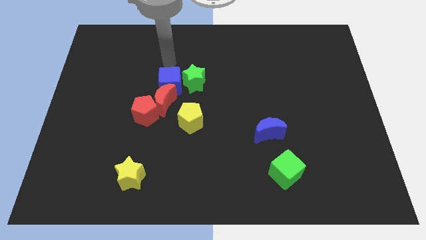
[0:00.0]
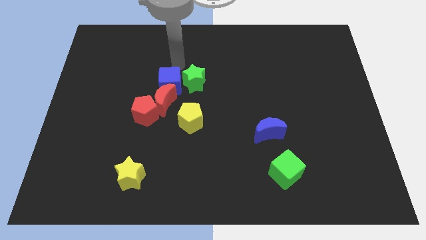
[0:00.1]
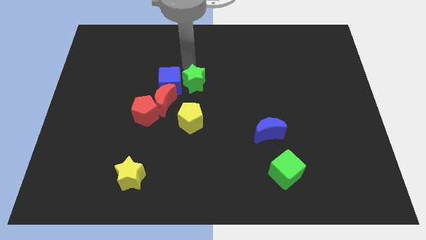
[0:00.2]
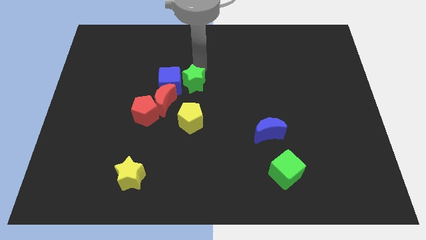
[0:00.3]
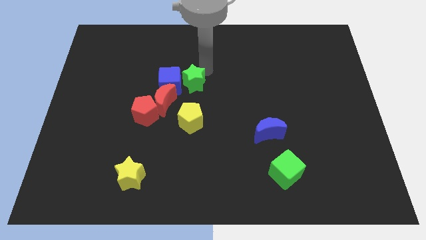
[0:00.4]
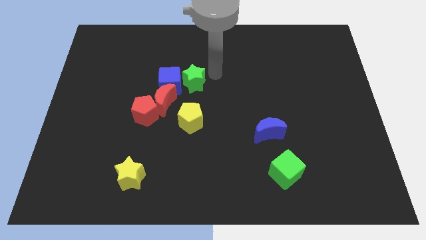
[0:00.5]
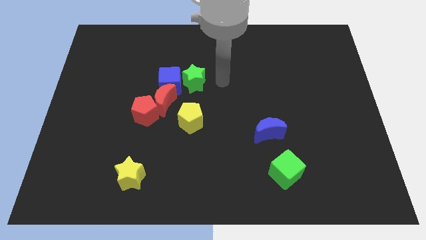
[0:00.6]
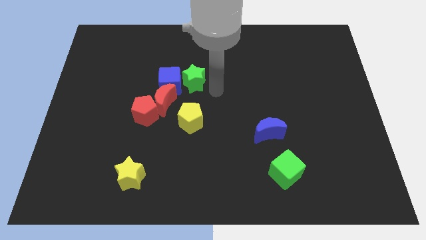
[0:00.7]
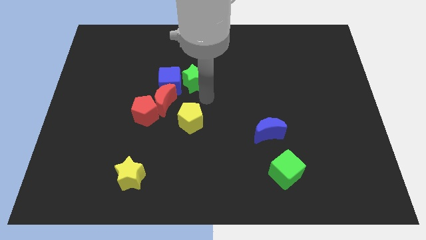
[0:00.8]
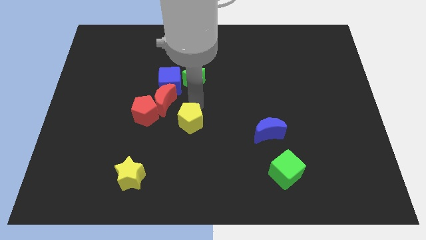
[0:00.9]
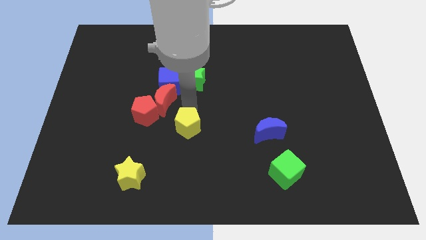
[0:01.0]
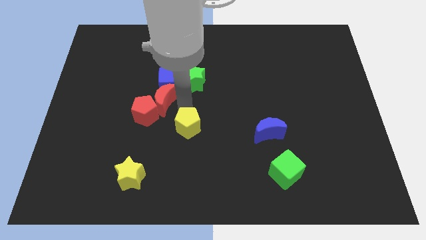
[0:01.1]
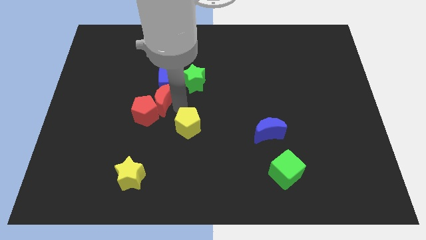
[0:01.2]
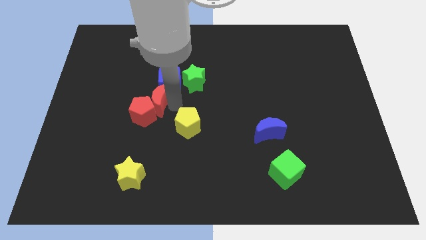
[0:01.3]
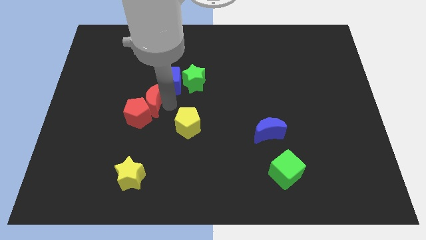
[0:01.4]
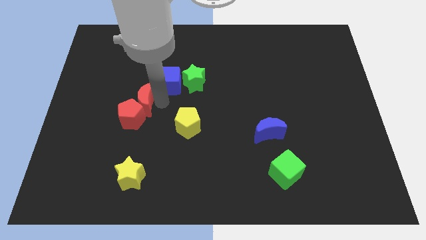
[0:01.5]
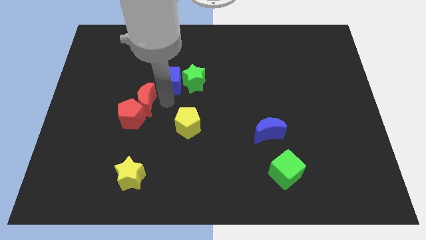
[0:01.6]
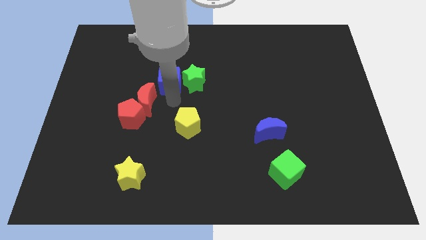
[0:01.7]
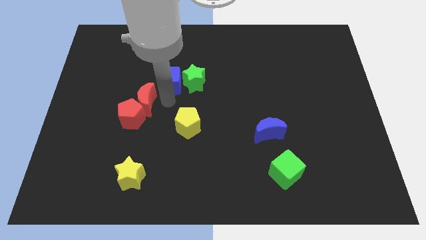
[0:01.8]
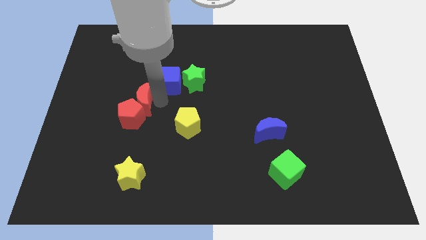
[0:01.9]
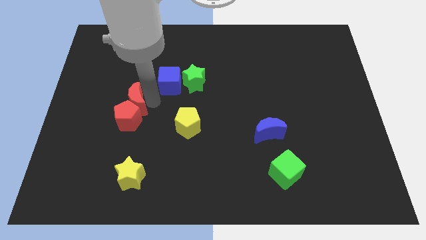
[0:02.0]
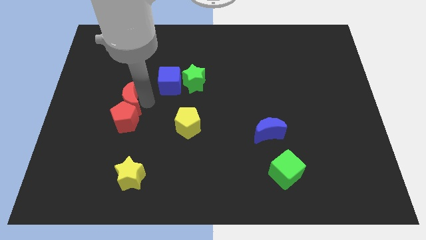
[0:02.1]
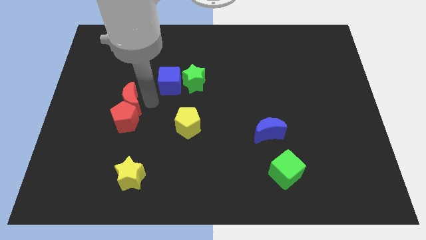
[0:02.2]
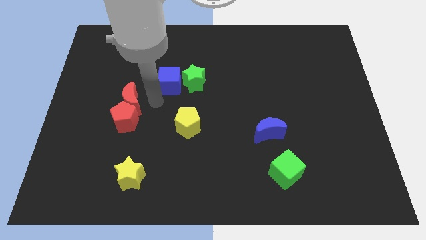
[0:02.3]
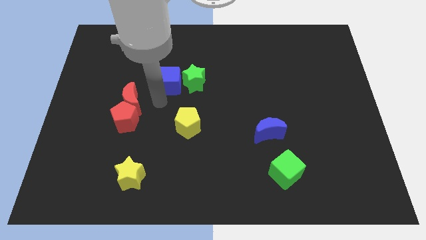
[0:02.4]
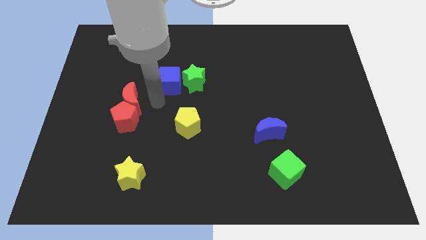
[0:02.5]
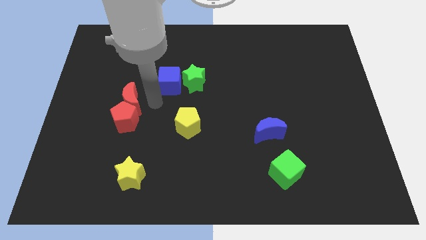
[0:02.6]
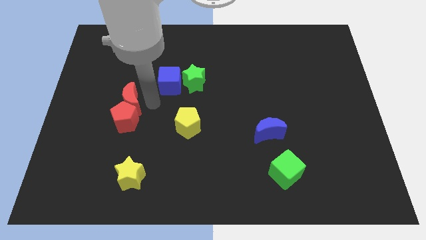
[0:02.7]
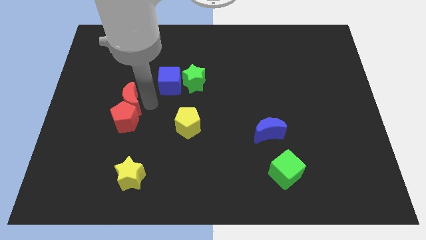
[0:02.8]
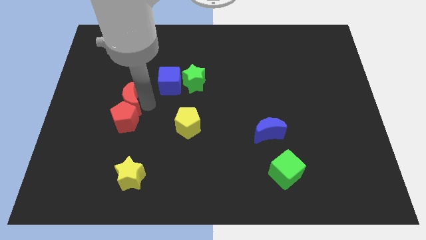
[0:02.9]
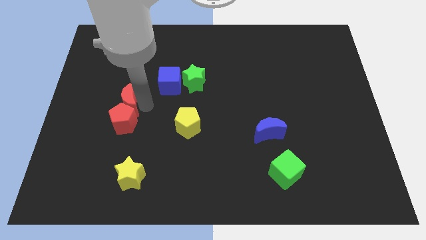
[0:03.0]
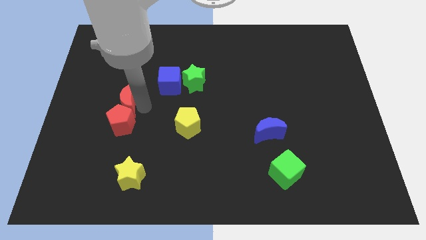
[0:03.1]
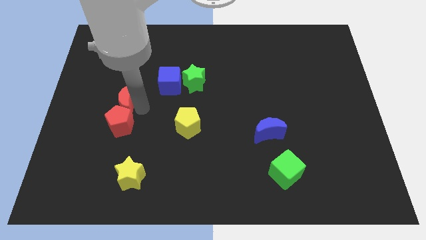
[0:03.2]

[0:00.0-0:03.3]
pull the red moon apart from the group of blocks

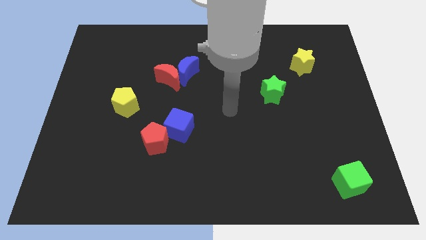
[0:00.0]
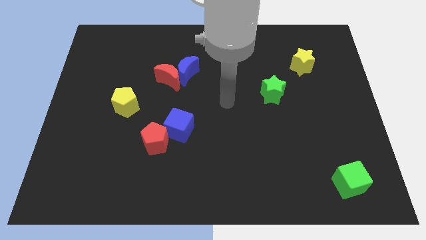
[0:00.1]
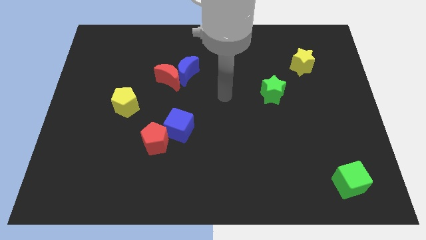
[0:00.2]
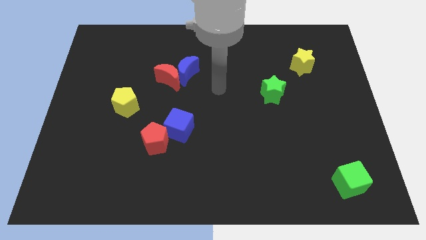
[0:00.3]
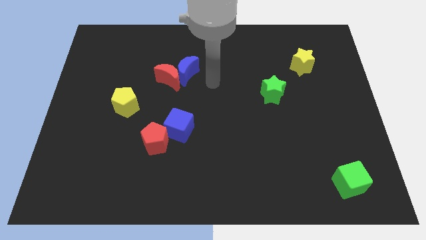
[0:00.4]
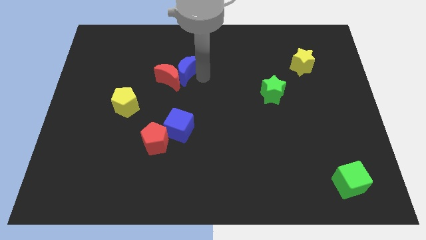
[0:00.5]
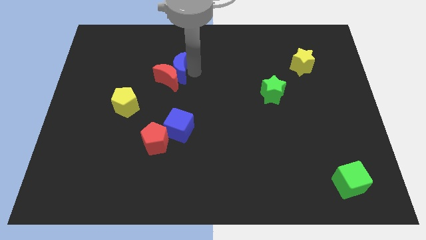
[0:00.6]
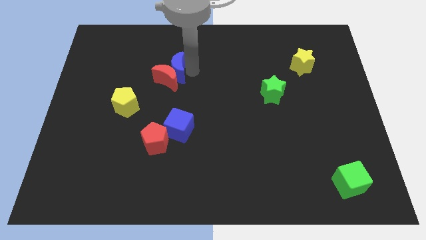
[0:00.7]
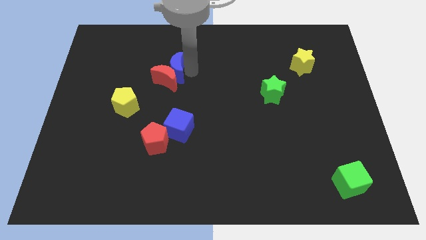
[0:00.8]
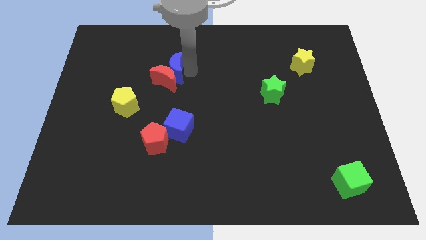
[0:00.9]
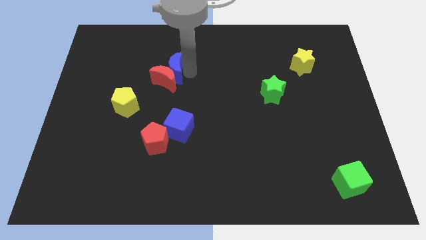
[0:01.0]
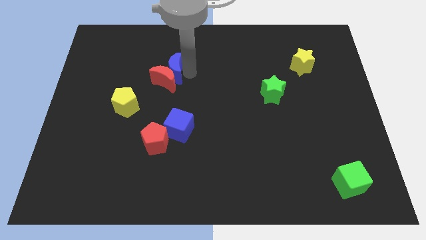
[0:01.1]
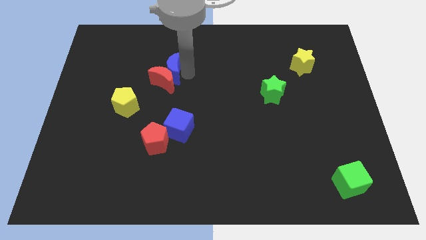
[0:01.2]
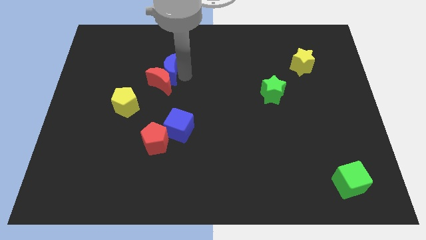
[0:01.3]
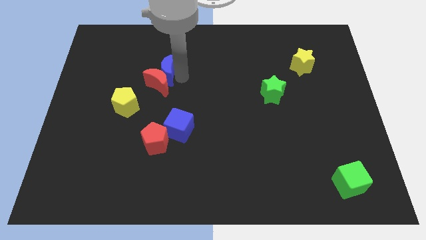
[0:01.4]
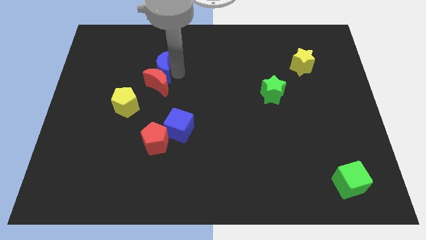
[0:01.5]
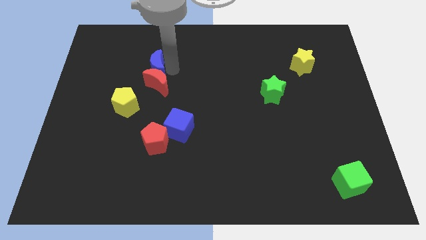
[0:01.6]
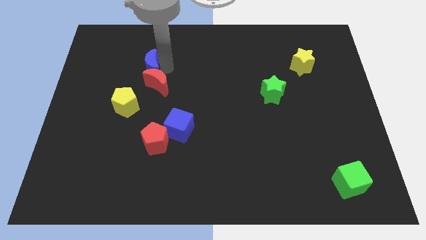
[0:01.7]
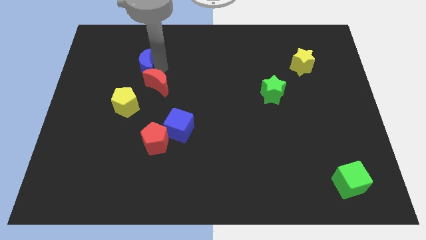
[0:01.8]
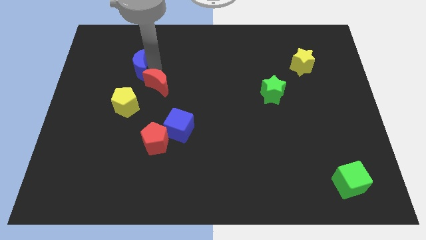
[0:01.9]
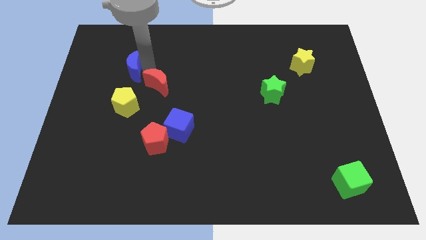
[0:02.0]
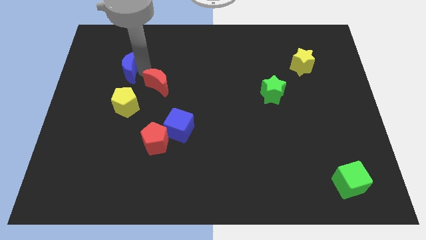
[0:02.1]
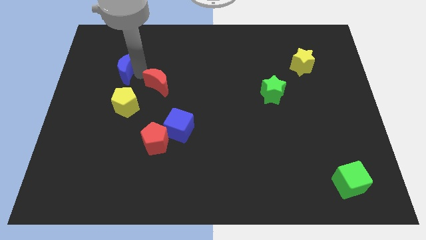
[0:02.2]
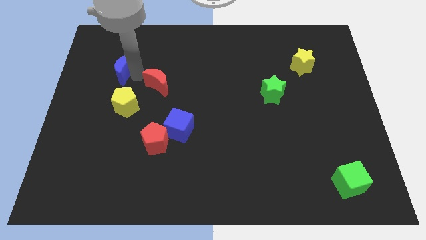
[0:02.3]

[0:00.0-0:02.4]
pull the red moon apart from the blue moon

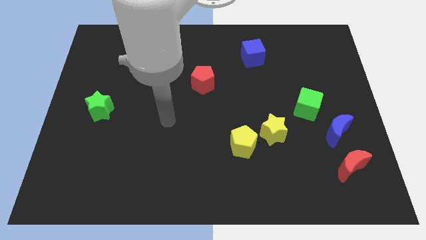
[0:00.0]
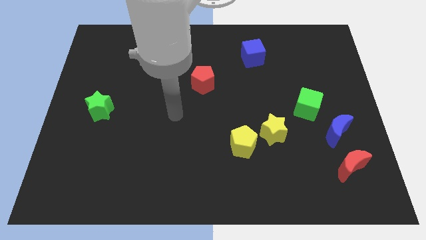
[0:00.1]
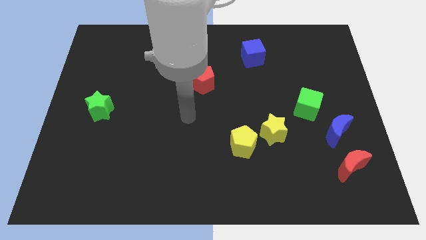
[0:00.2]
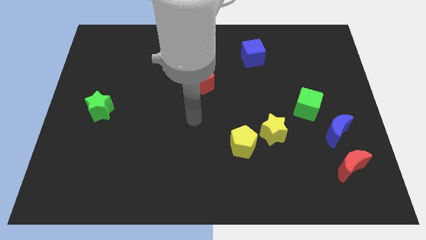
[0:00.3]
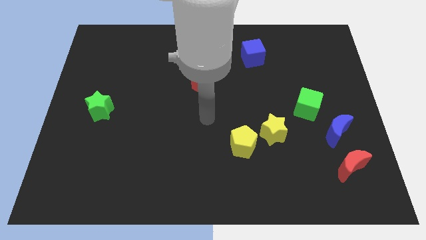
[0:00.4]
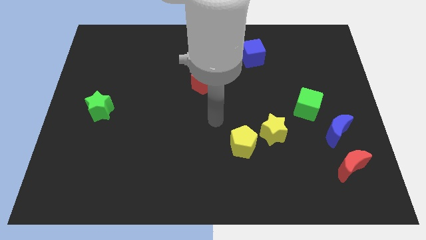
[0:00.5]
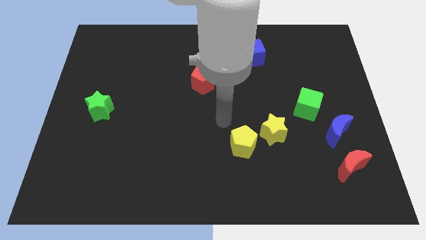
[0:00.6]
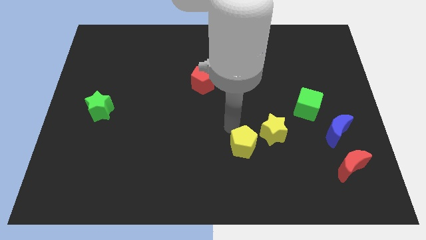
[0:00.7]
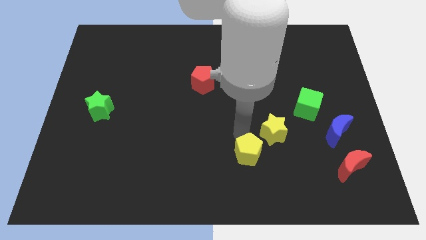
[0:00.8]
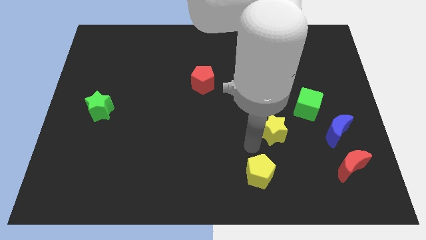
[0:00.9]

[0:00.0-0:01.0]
pull the yellow star apart from the yellow pentagon

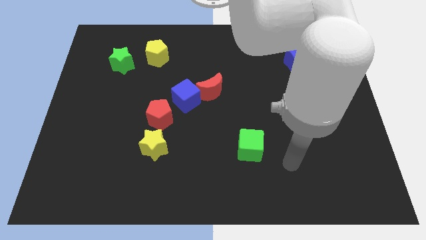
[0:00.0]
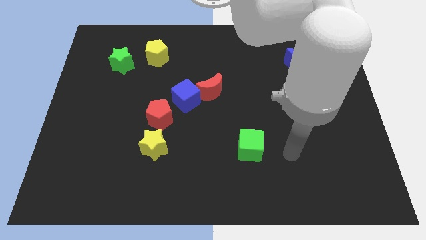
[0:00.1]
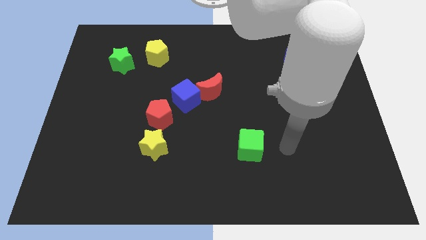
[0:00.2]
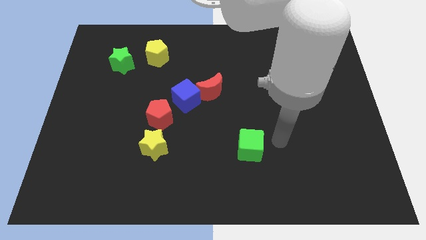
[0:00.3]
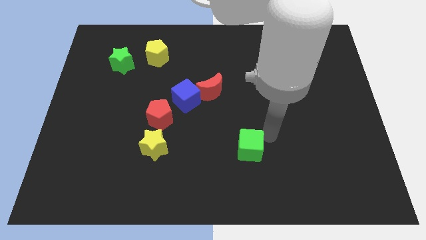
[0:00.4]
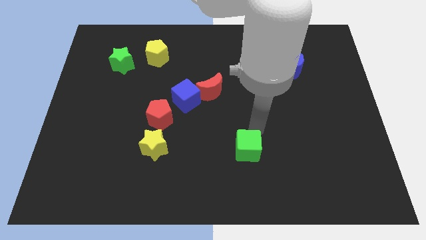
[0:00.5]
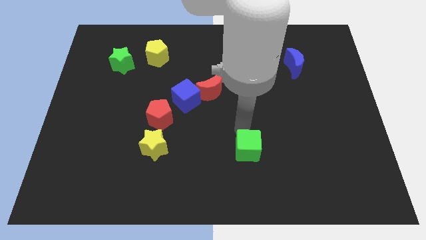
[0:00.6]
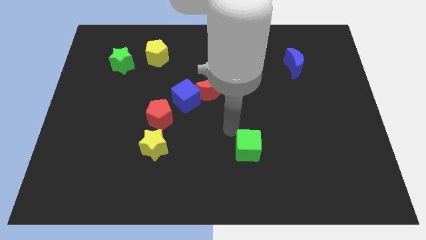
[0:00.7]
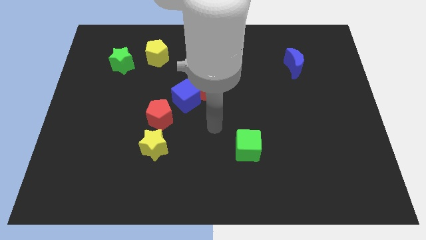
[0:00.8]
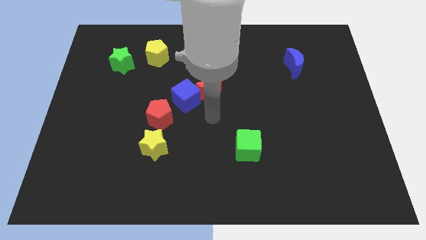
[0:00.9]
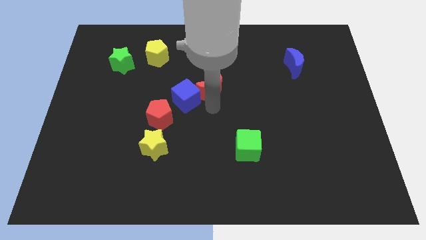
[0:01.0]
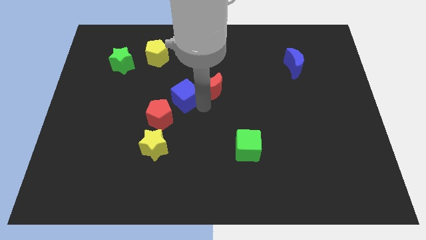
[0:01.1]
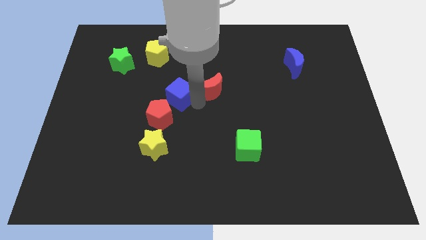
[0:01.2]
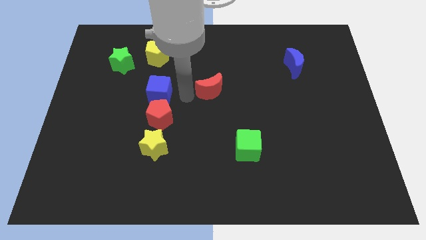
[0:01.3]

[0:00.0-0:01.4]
separate the red moon from the blue cube

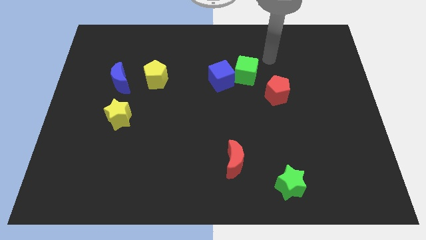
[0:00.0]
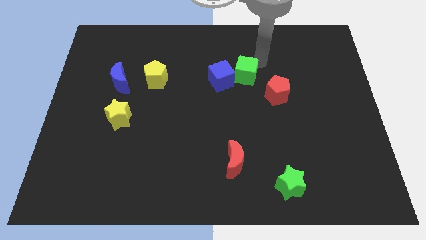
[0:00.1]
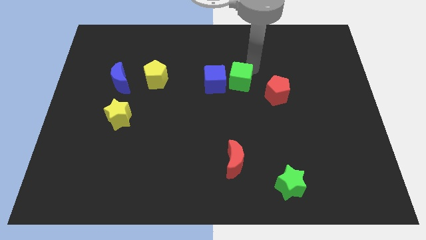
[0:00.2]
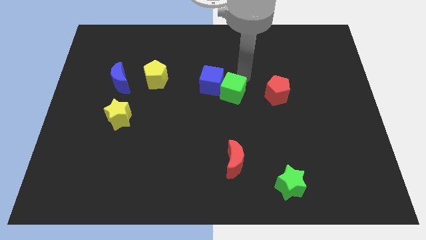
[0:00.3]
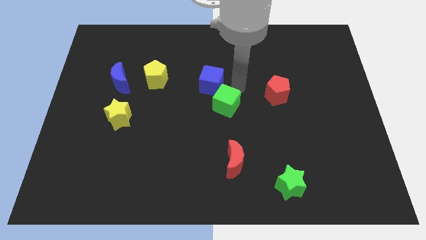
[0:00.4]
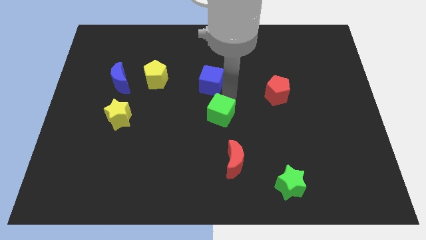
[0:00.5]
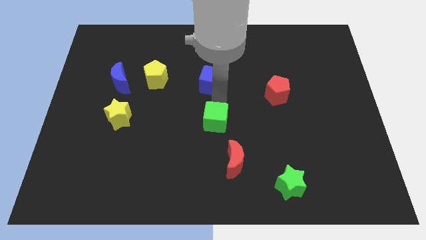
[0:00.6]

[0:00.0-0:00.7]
pull the blue cube apart from the green cube

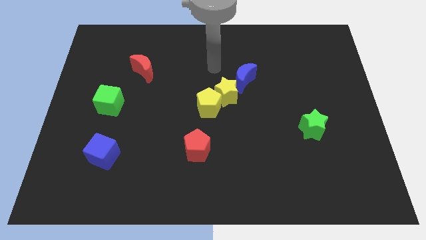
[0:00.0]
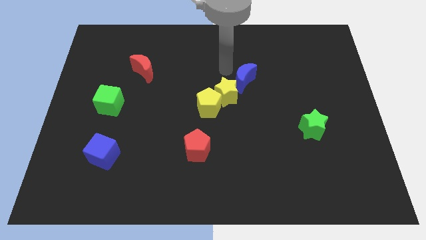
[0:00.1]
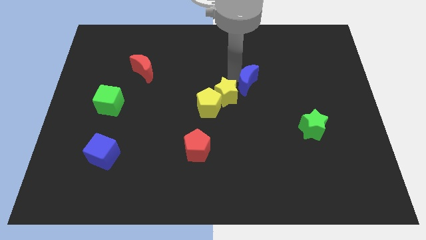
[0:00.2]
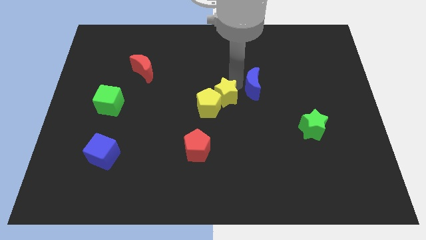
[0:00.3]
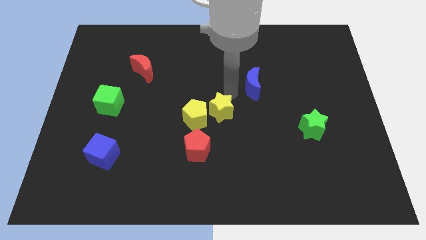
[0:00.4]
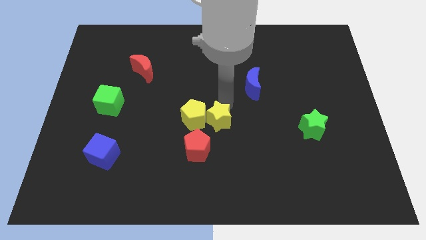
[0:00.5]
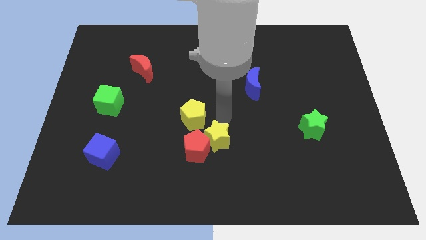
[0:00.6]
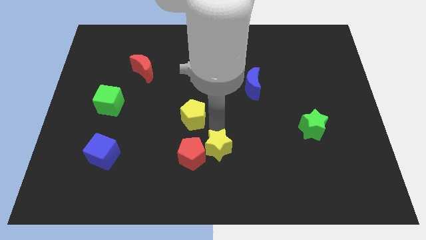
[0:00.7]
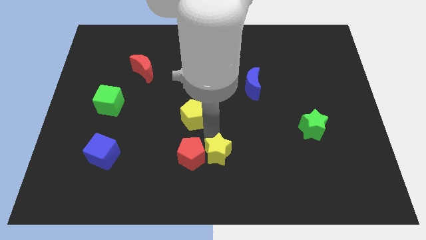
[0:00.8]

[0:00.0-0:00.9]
pull the yellow pentagon apart from the yellow star
